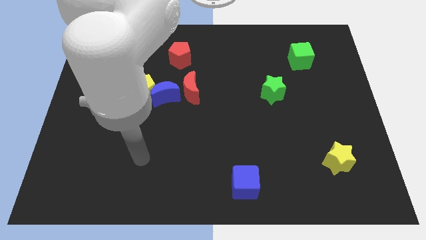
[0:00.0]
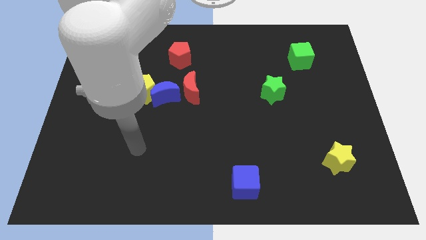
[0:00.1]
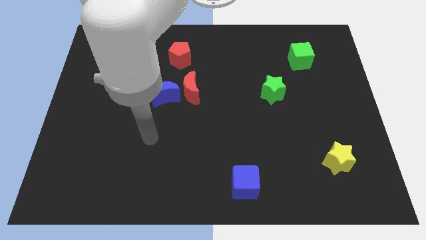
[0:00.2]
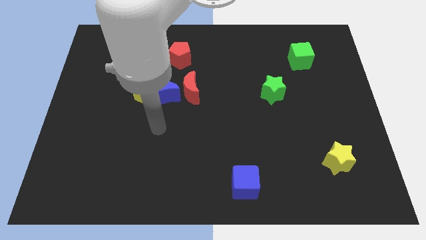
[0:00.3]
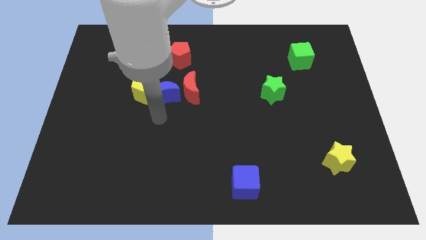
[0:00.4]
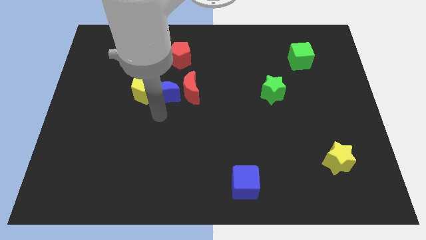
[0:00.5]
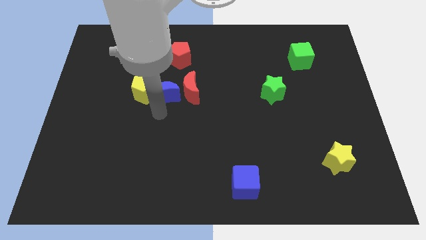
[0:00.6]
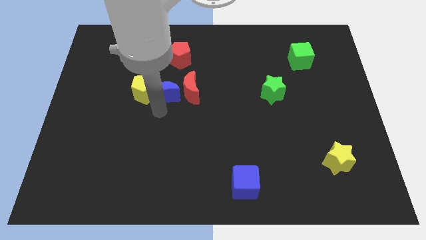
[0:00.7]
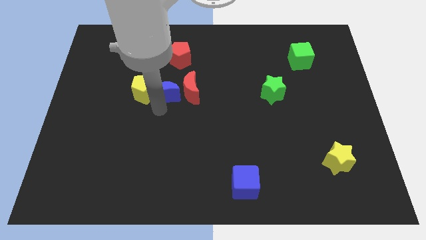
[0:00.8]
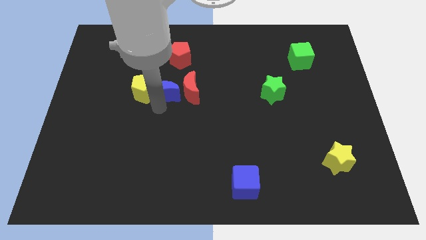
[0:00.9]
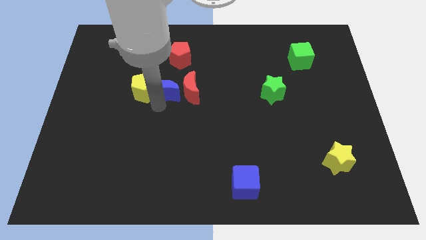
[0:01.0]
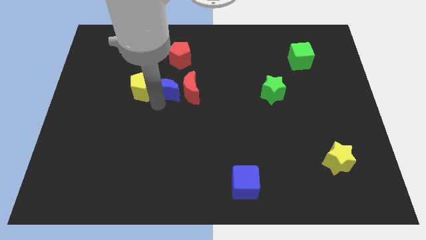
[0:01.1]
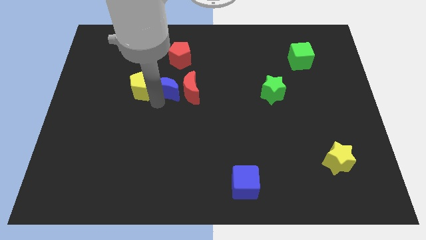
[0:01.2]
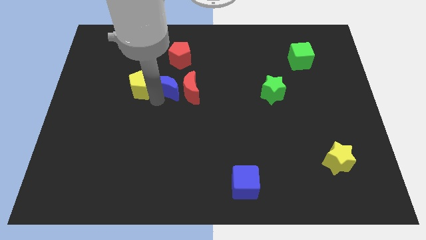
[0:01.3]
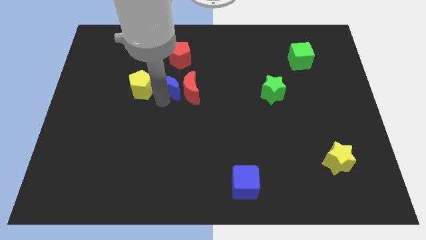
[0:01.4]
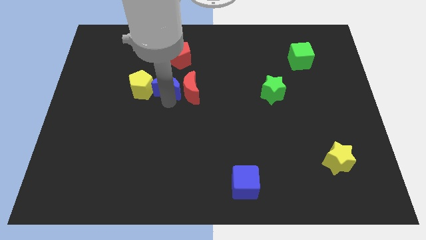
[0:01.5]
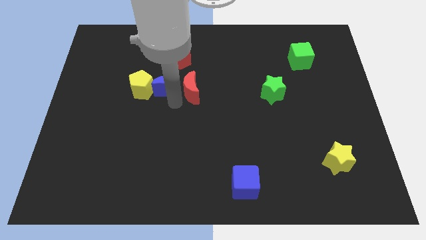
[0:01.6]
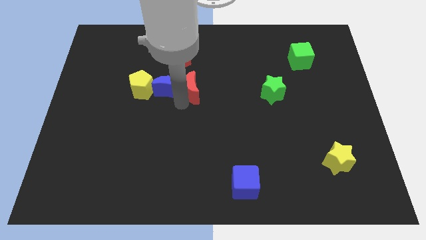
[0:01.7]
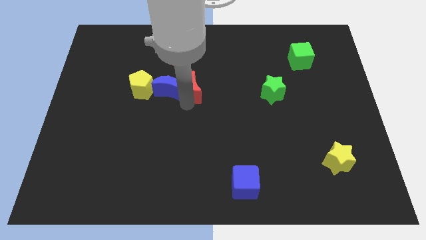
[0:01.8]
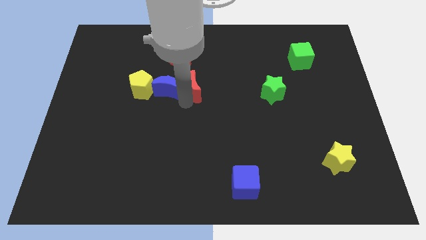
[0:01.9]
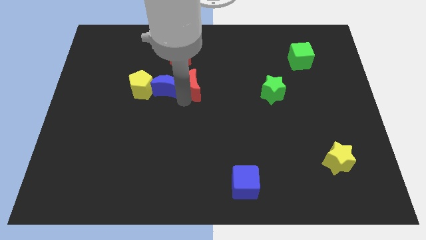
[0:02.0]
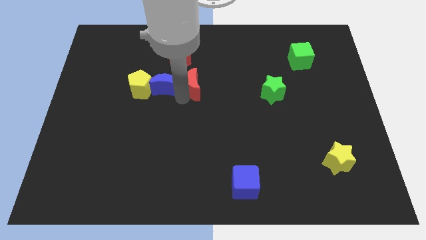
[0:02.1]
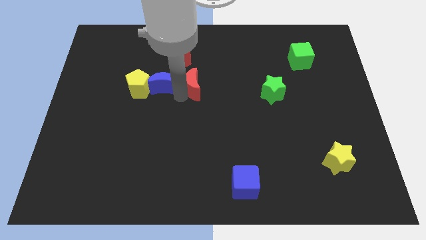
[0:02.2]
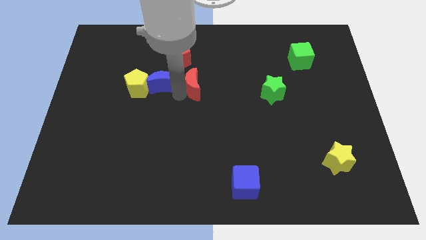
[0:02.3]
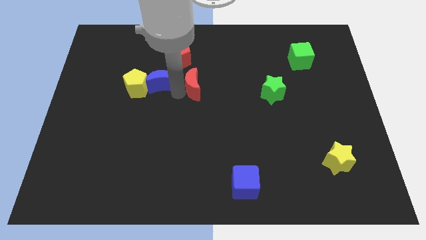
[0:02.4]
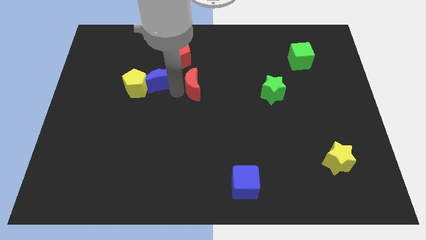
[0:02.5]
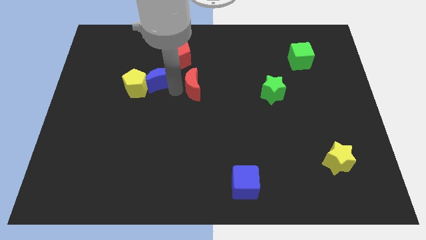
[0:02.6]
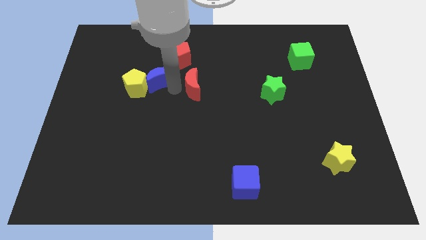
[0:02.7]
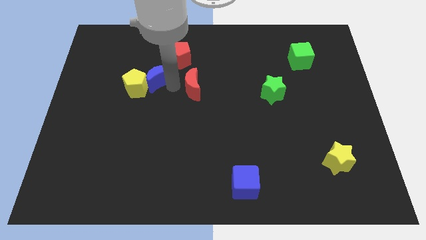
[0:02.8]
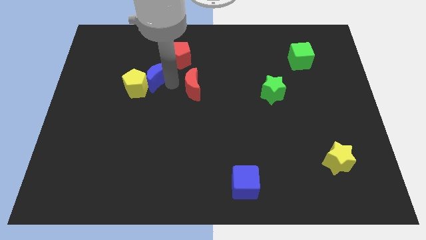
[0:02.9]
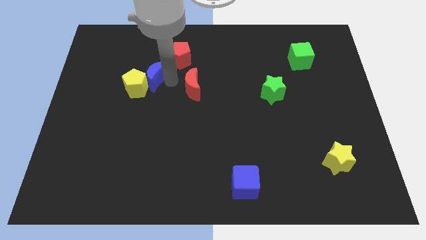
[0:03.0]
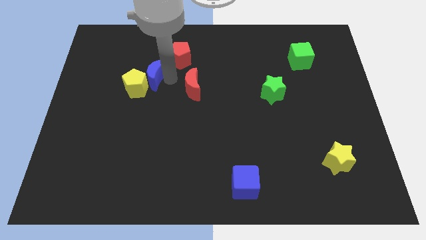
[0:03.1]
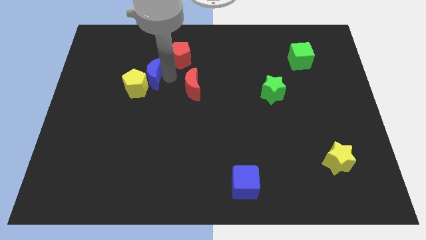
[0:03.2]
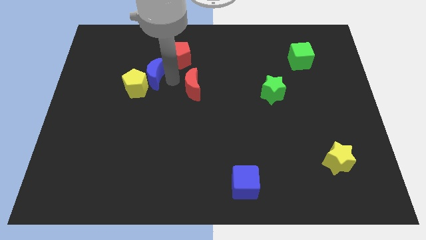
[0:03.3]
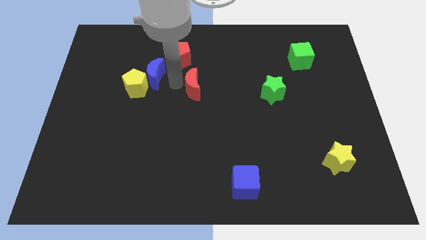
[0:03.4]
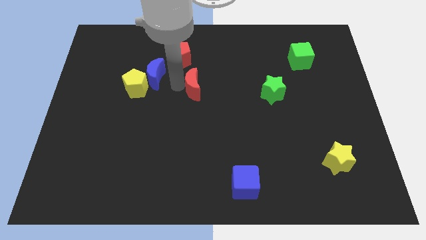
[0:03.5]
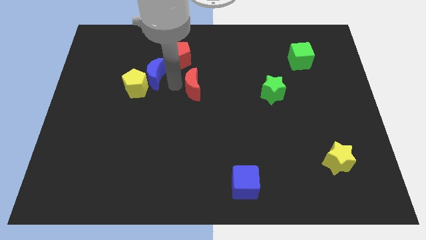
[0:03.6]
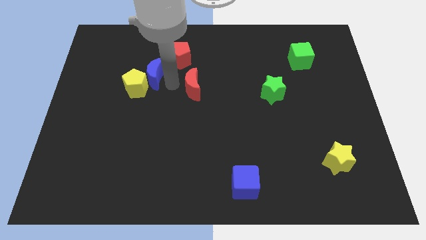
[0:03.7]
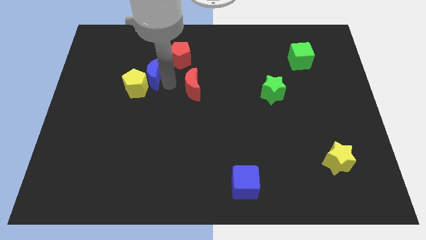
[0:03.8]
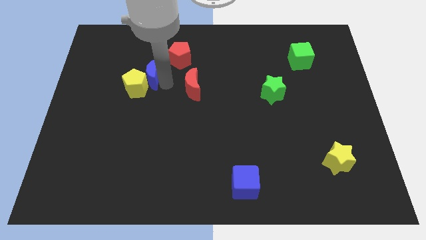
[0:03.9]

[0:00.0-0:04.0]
slide the blue moon upwards and then to the left slightly

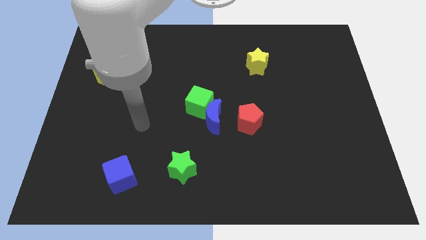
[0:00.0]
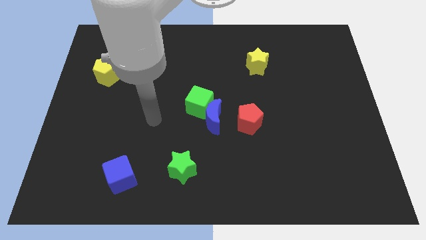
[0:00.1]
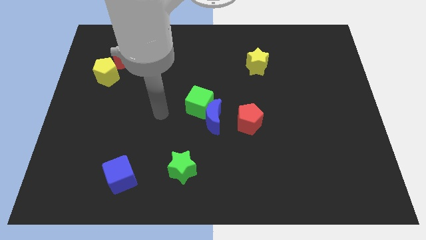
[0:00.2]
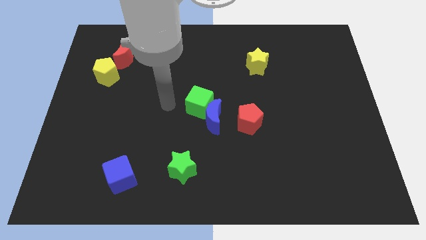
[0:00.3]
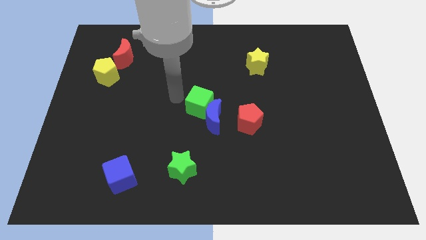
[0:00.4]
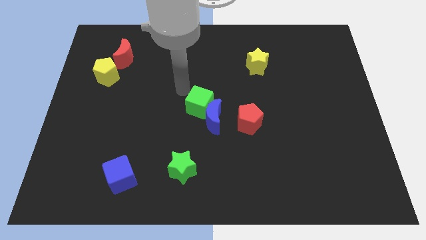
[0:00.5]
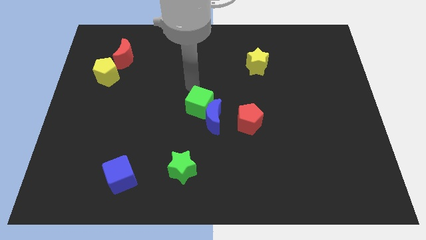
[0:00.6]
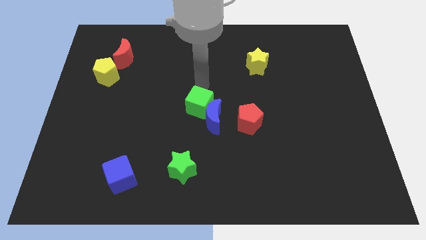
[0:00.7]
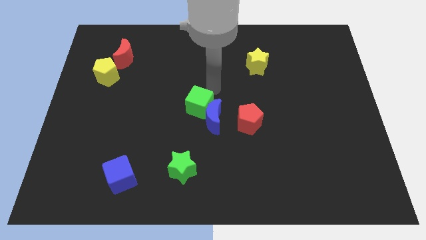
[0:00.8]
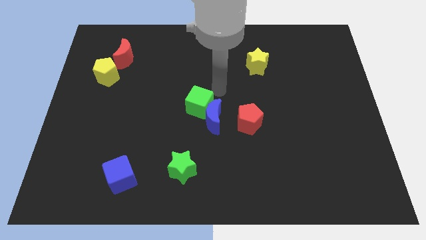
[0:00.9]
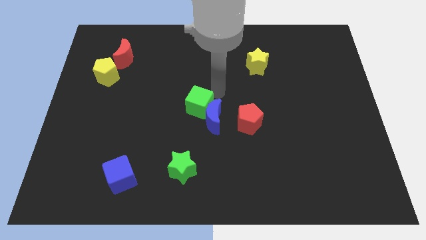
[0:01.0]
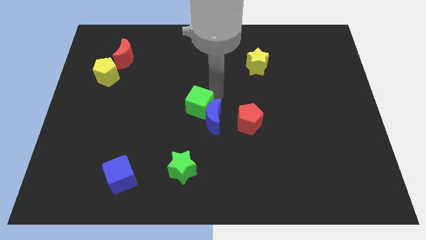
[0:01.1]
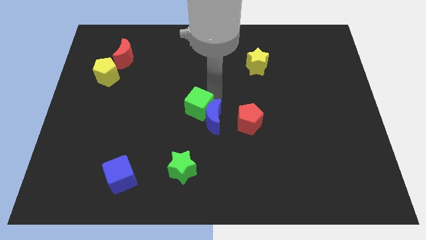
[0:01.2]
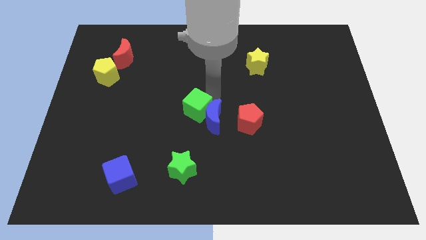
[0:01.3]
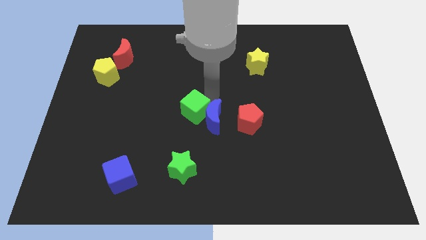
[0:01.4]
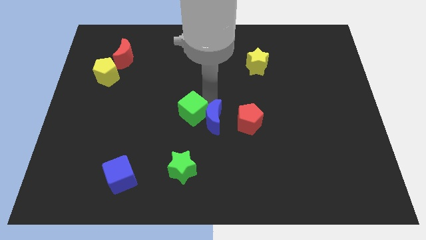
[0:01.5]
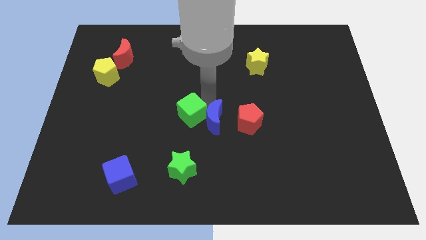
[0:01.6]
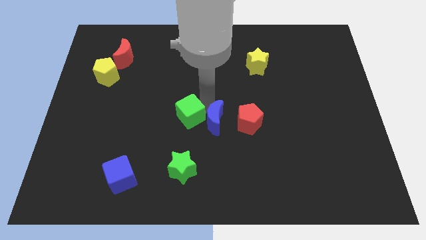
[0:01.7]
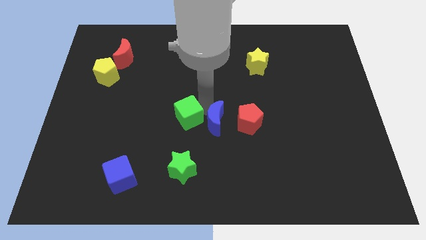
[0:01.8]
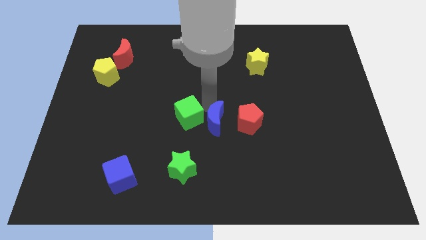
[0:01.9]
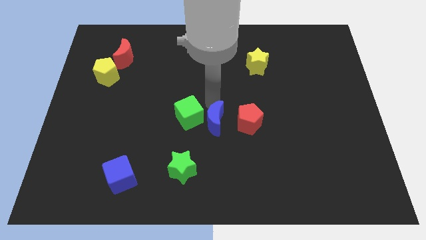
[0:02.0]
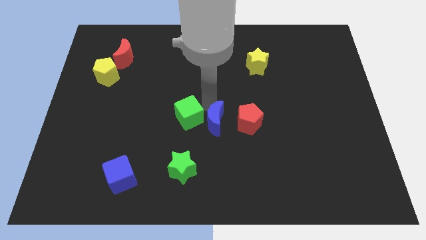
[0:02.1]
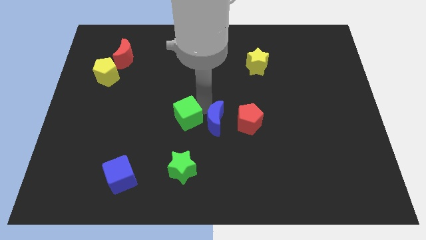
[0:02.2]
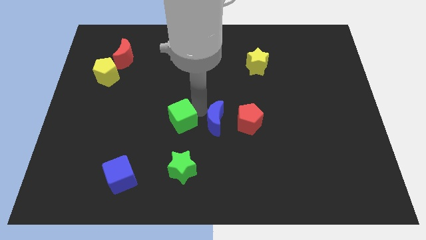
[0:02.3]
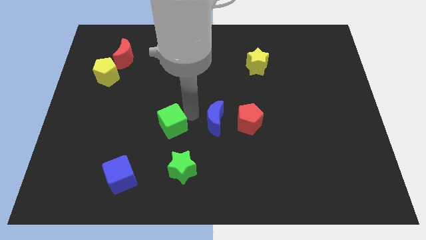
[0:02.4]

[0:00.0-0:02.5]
move the green cube downwards and left diagonally a little bit

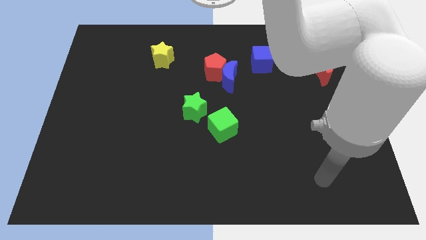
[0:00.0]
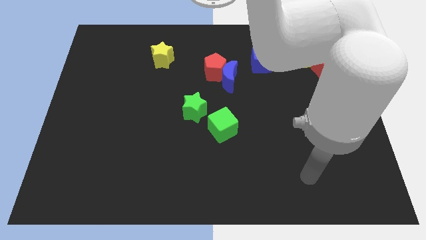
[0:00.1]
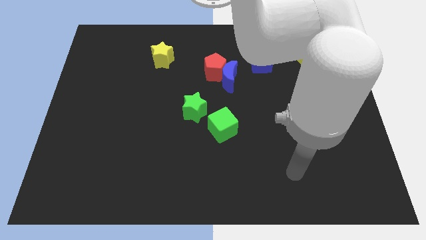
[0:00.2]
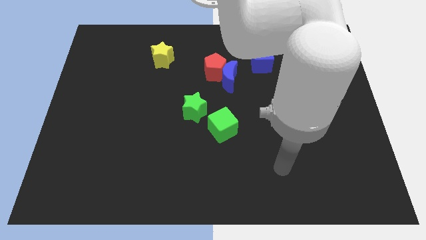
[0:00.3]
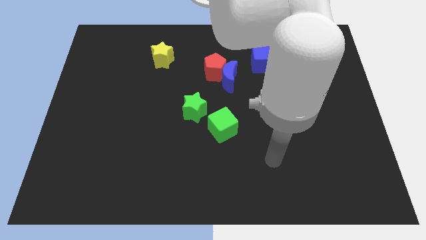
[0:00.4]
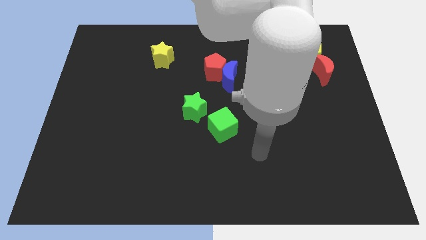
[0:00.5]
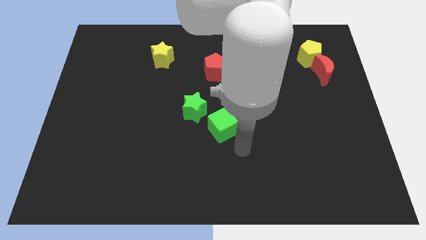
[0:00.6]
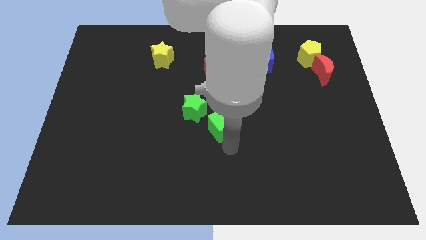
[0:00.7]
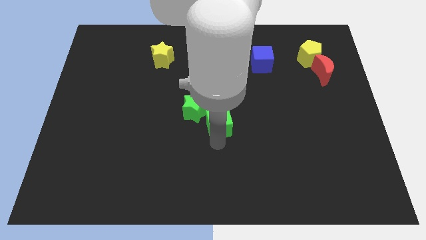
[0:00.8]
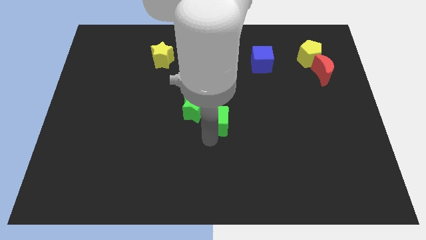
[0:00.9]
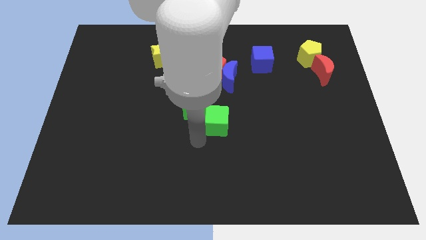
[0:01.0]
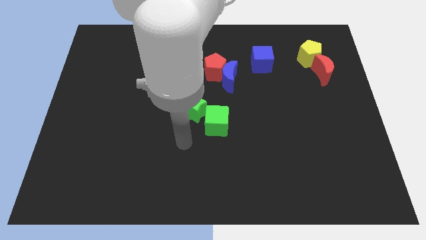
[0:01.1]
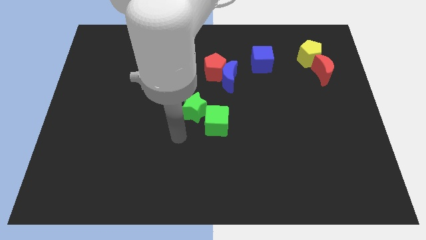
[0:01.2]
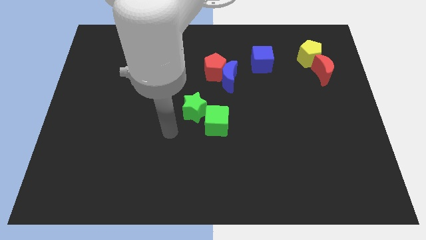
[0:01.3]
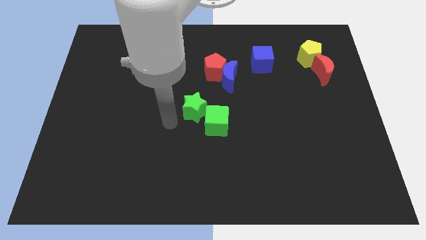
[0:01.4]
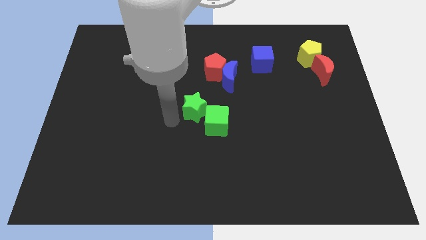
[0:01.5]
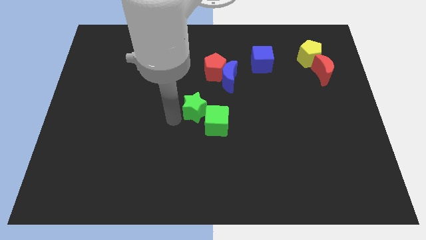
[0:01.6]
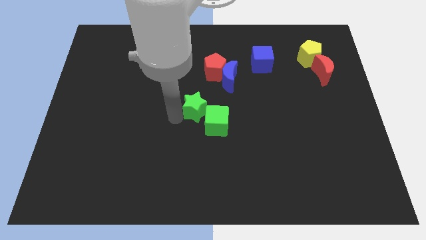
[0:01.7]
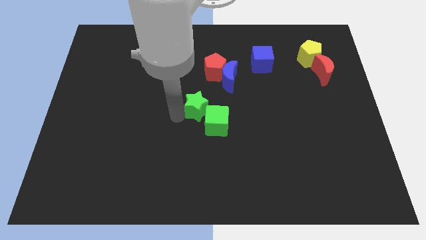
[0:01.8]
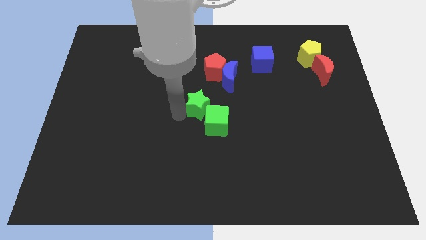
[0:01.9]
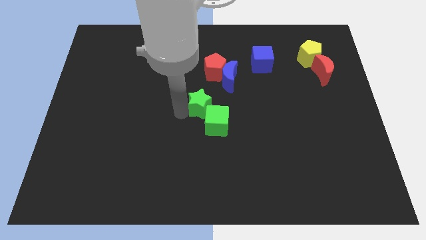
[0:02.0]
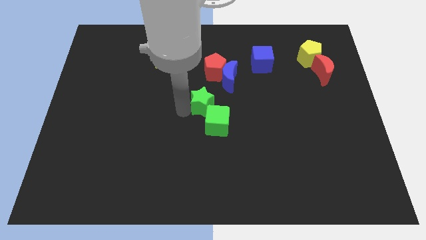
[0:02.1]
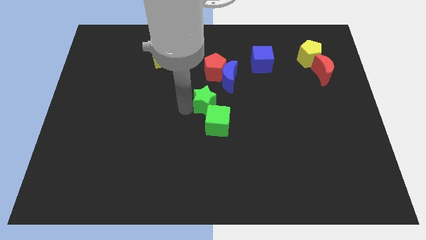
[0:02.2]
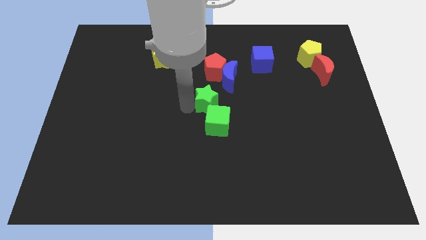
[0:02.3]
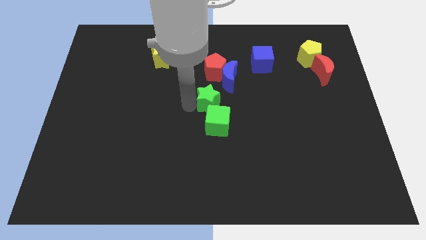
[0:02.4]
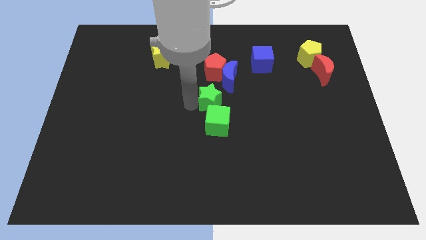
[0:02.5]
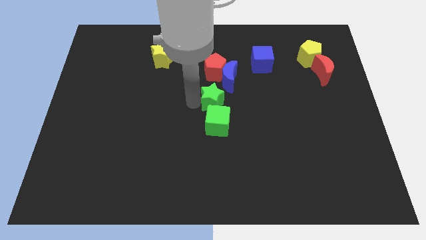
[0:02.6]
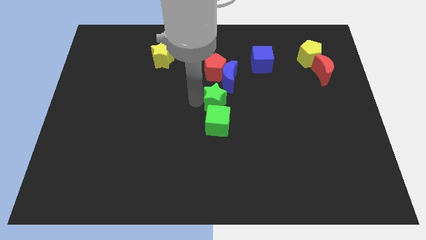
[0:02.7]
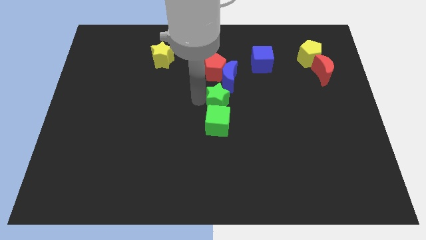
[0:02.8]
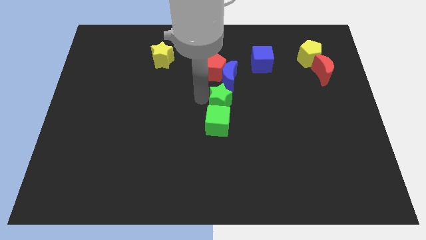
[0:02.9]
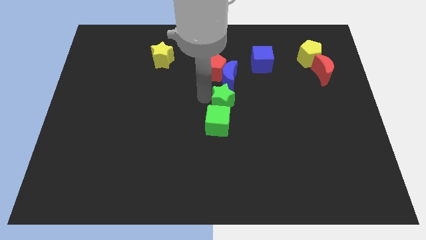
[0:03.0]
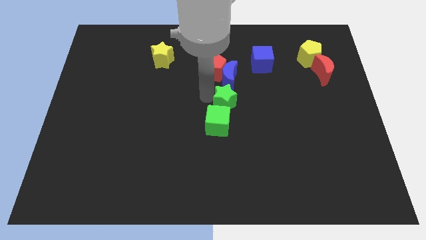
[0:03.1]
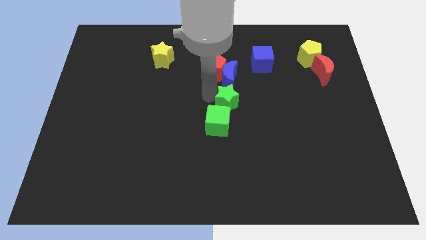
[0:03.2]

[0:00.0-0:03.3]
move the green star slightly upwards and right
